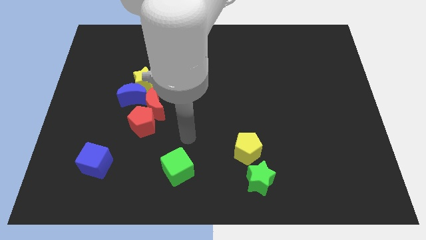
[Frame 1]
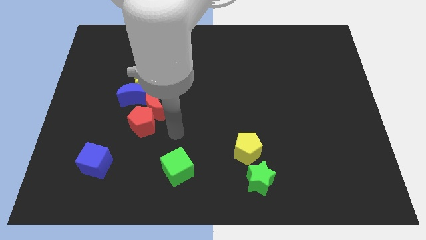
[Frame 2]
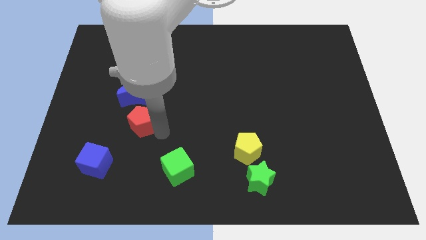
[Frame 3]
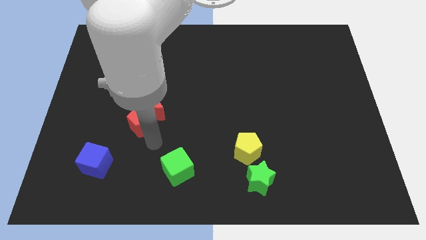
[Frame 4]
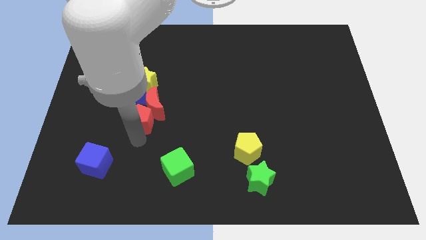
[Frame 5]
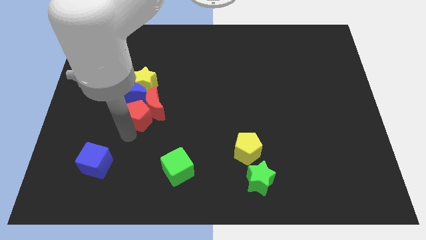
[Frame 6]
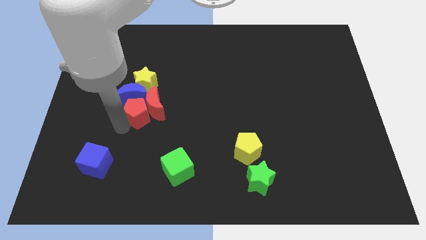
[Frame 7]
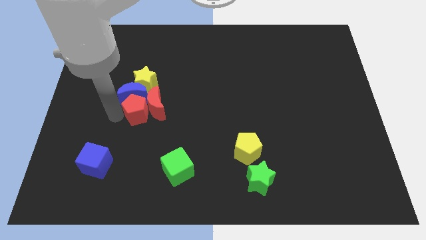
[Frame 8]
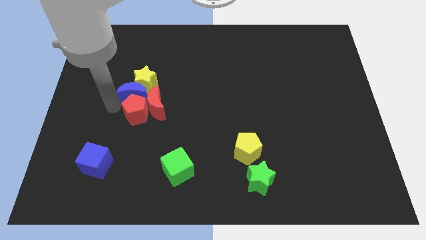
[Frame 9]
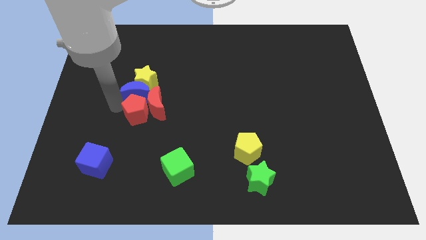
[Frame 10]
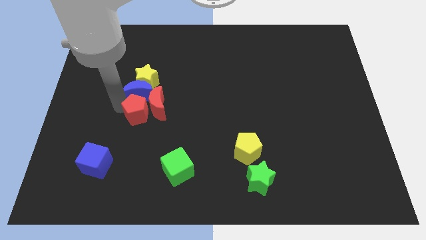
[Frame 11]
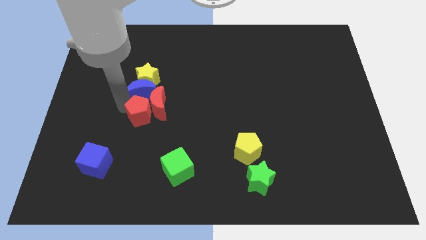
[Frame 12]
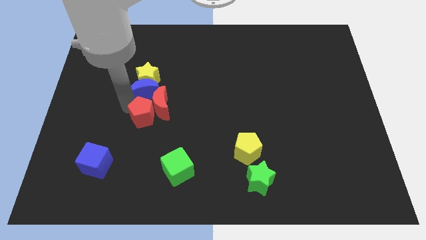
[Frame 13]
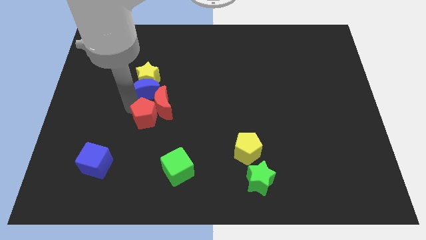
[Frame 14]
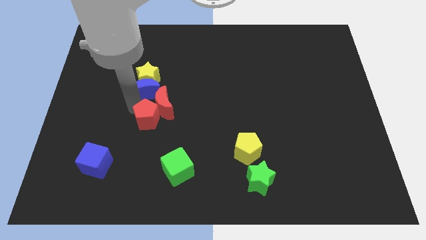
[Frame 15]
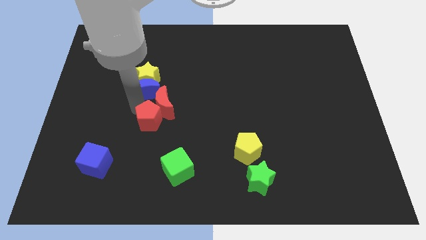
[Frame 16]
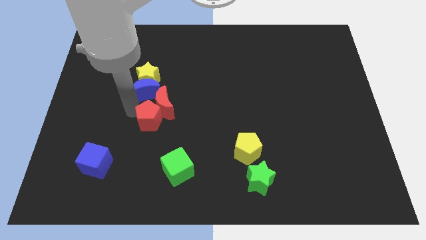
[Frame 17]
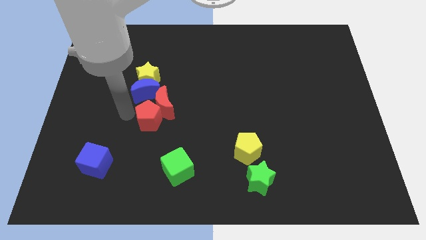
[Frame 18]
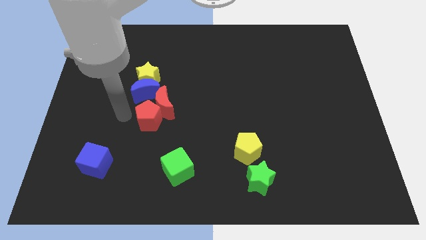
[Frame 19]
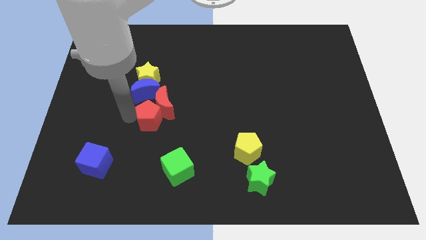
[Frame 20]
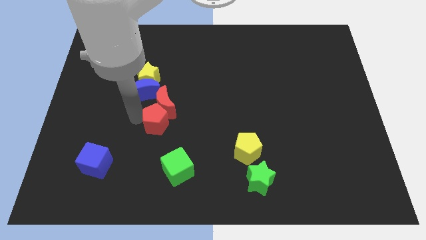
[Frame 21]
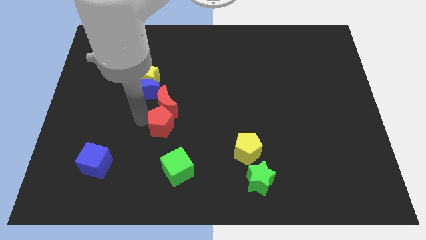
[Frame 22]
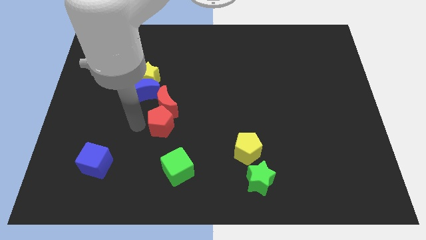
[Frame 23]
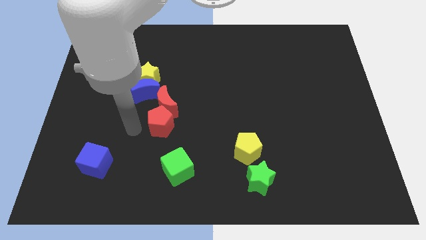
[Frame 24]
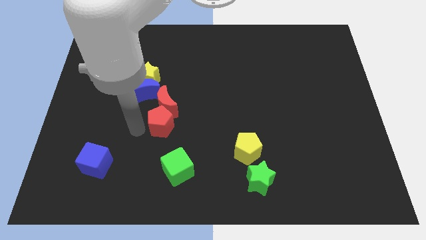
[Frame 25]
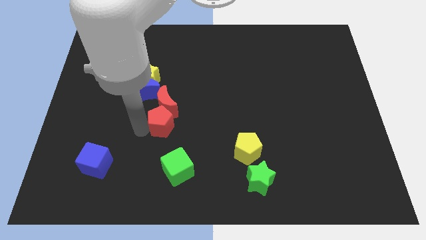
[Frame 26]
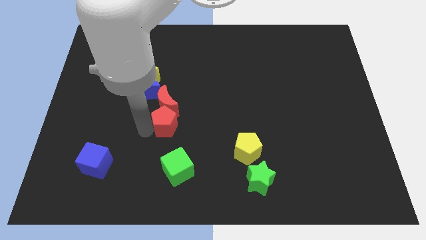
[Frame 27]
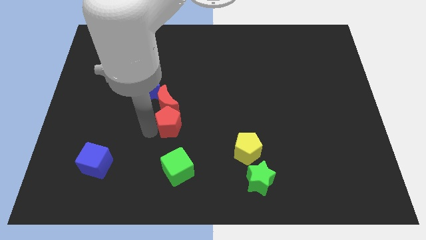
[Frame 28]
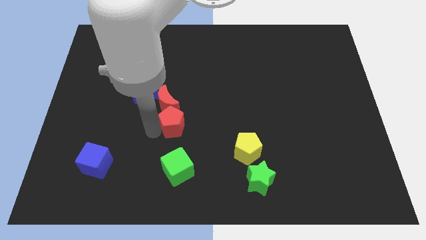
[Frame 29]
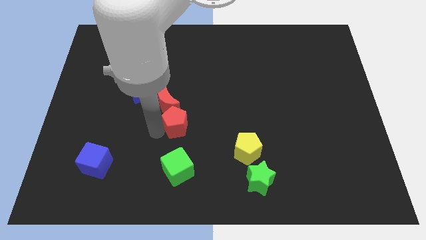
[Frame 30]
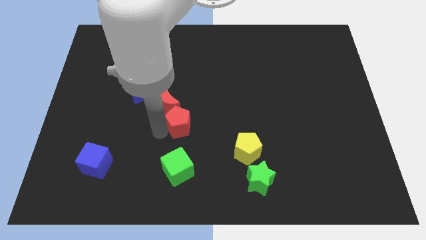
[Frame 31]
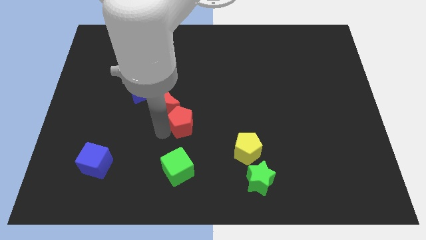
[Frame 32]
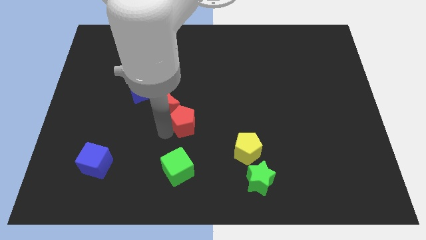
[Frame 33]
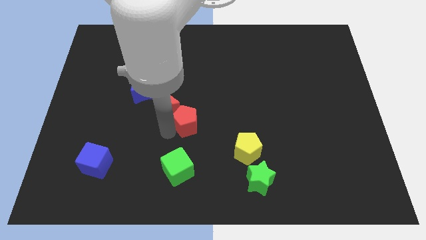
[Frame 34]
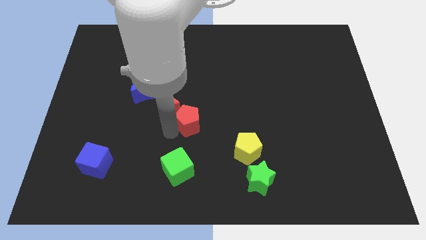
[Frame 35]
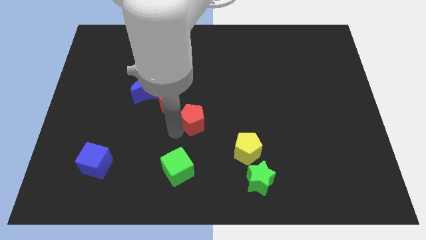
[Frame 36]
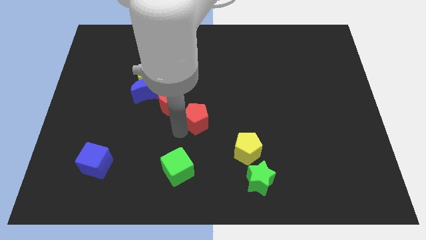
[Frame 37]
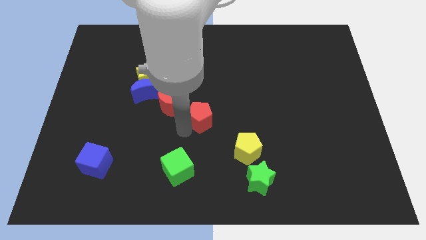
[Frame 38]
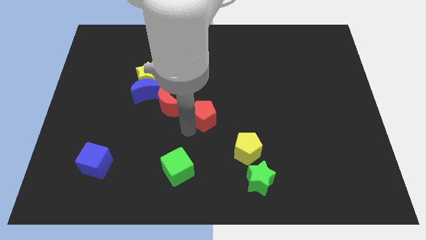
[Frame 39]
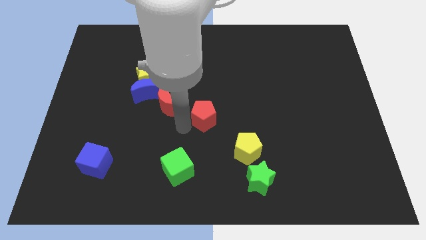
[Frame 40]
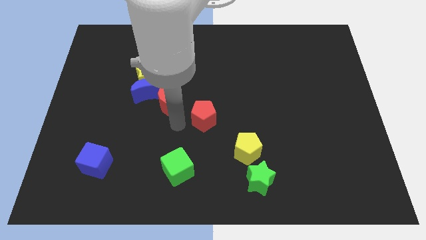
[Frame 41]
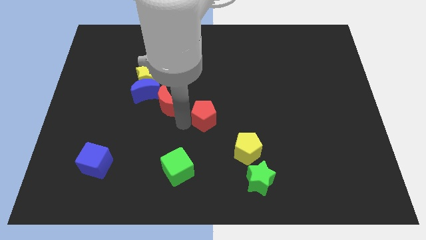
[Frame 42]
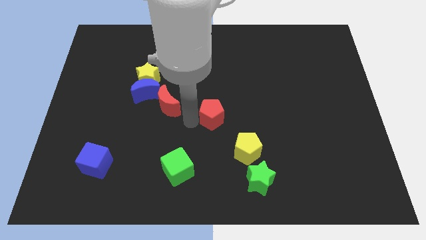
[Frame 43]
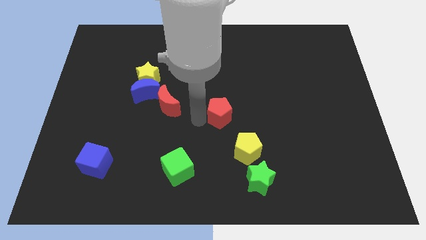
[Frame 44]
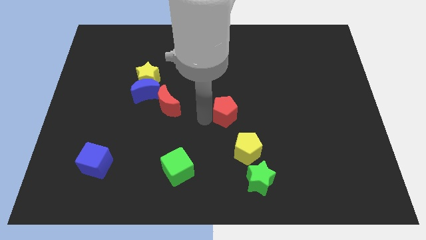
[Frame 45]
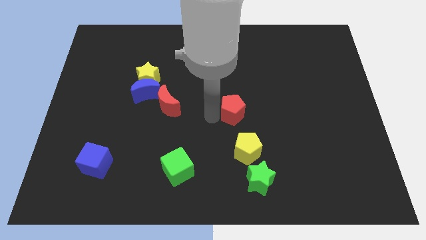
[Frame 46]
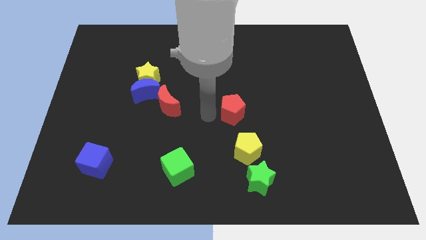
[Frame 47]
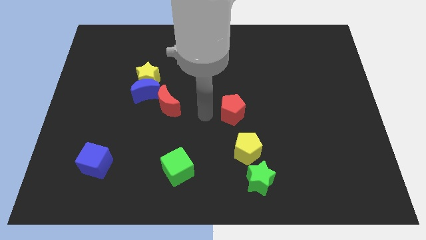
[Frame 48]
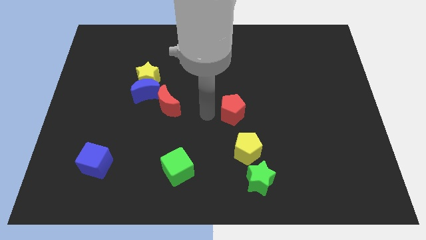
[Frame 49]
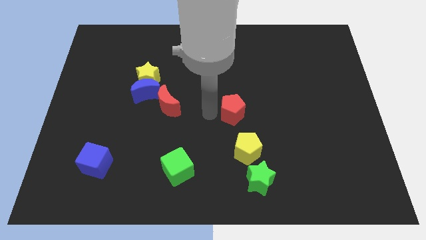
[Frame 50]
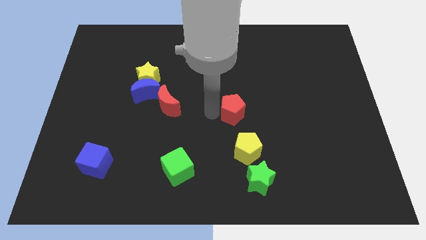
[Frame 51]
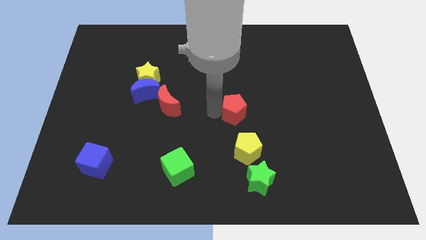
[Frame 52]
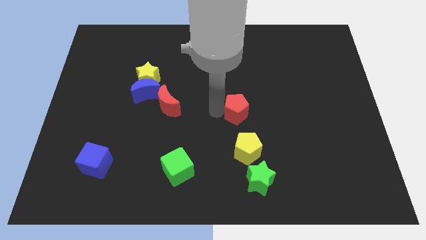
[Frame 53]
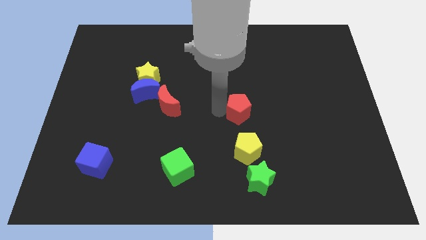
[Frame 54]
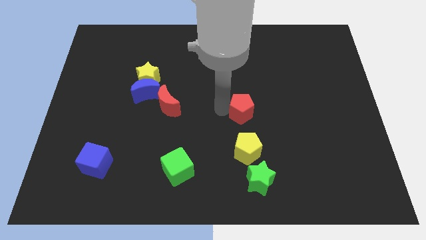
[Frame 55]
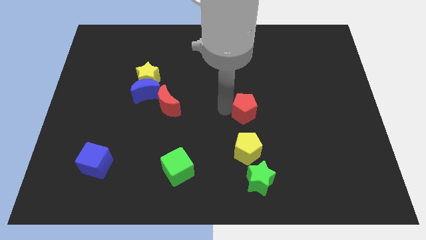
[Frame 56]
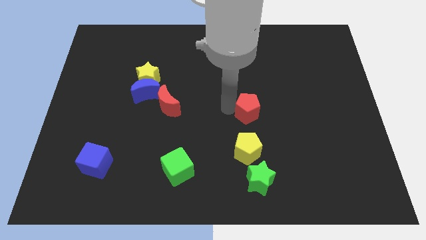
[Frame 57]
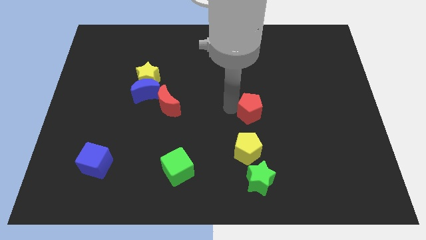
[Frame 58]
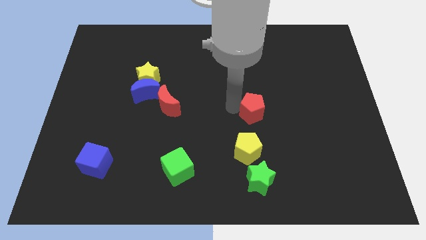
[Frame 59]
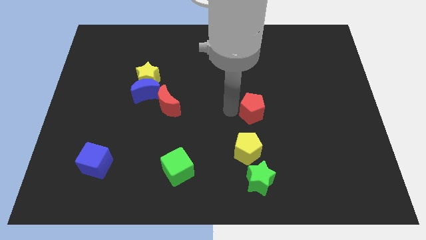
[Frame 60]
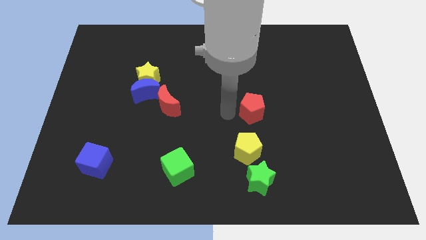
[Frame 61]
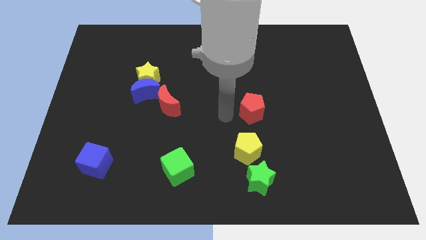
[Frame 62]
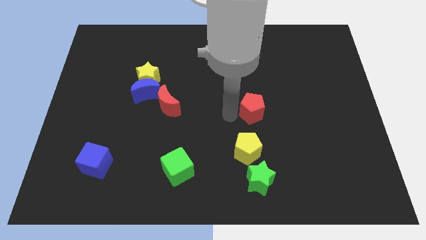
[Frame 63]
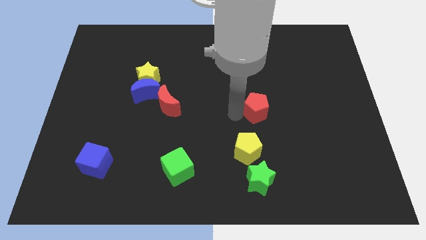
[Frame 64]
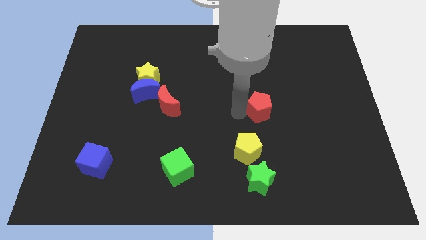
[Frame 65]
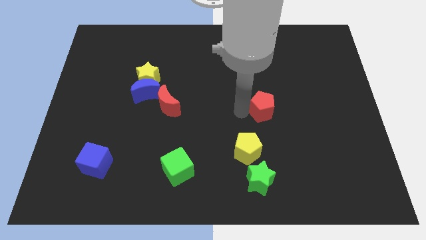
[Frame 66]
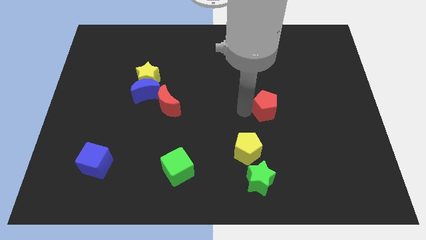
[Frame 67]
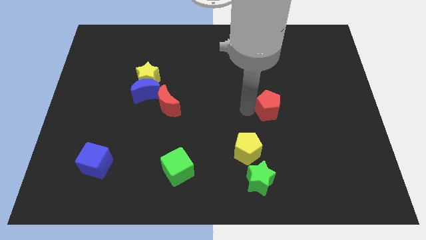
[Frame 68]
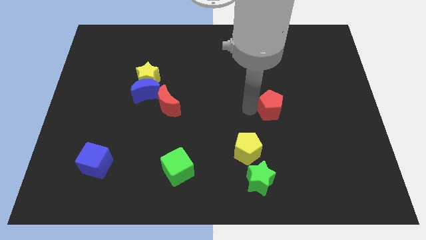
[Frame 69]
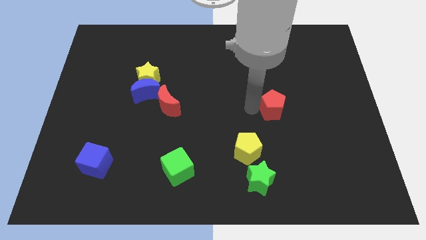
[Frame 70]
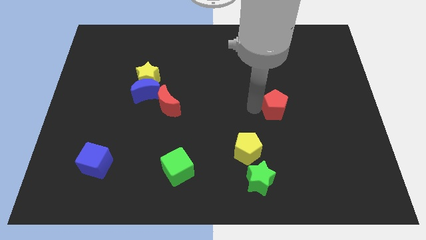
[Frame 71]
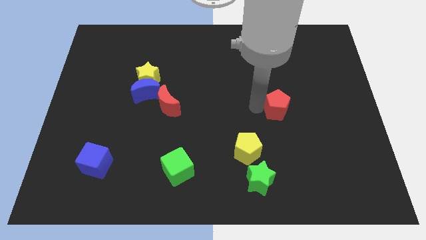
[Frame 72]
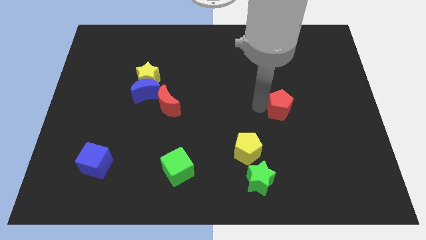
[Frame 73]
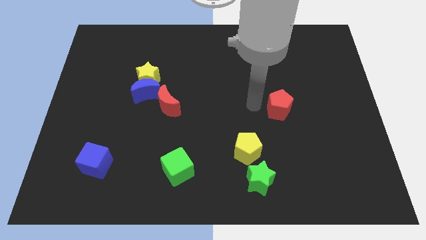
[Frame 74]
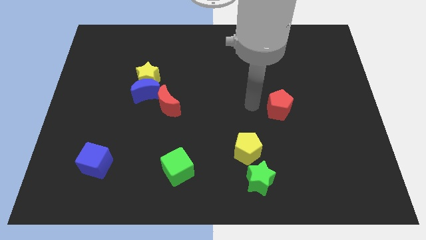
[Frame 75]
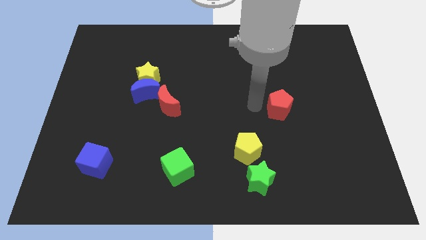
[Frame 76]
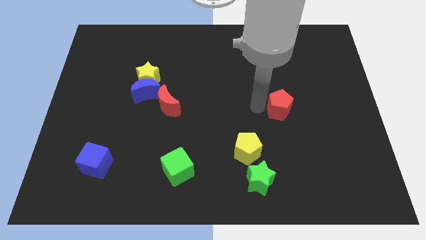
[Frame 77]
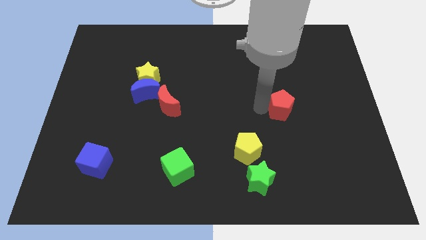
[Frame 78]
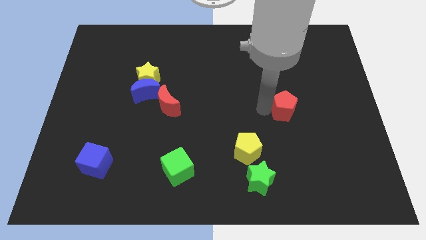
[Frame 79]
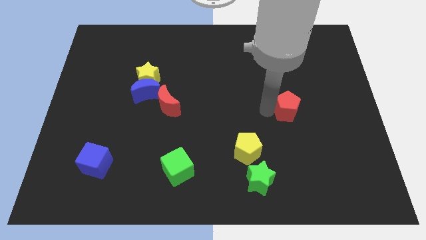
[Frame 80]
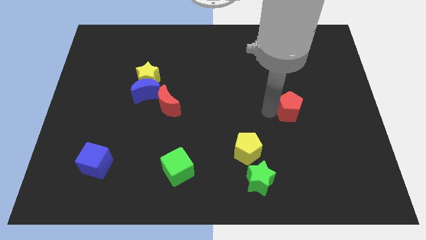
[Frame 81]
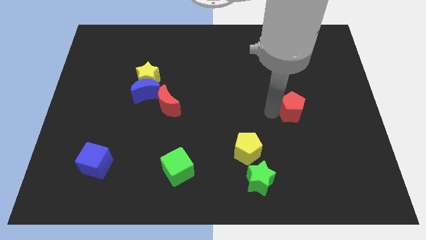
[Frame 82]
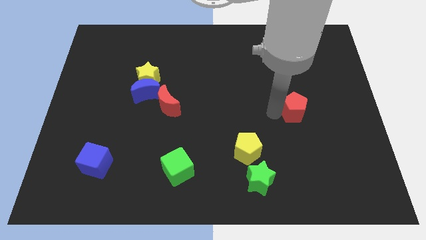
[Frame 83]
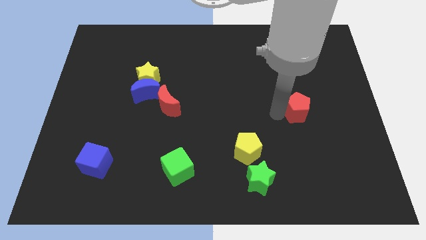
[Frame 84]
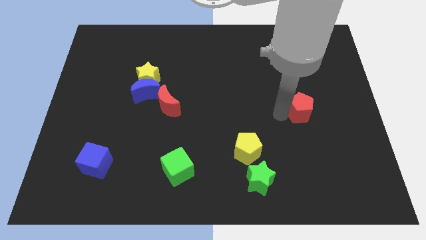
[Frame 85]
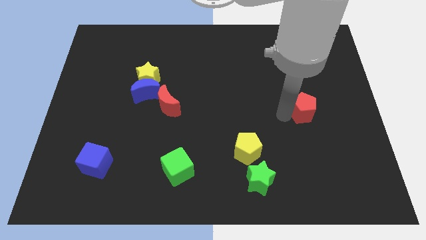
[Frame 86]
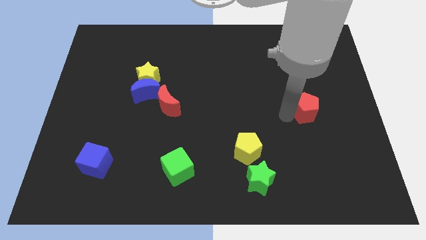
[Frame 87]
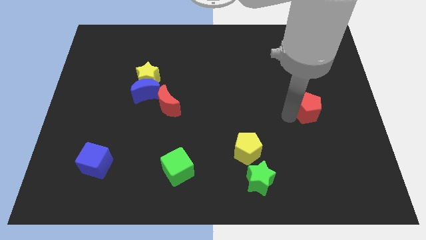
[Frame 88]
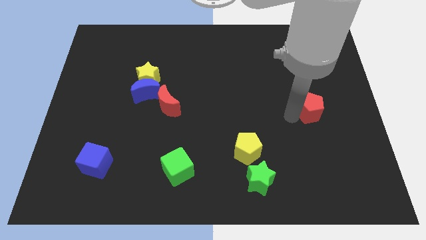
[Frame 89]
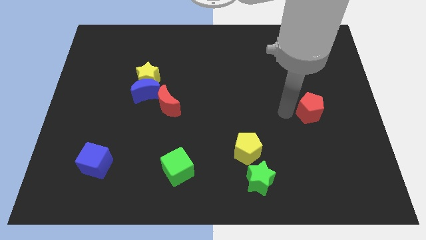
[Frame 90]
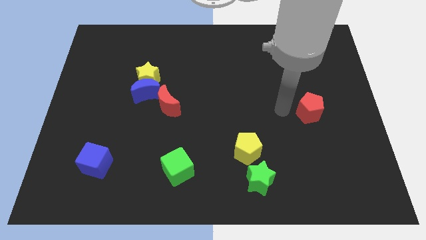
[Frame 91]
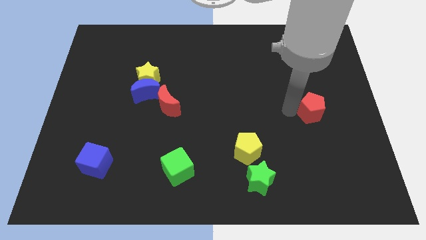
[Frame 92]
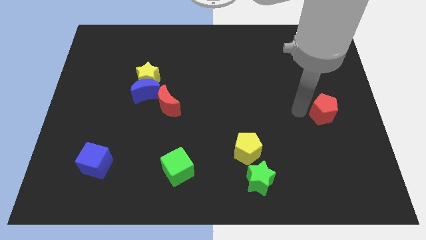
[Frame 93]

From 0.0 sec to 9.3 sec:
push the red pentagon to the right side
